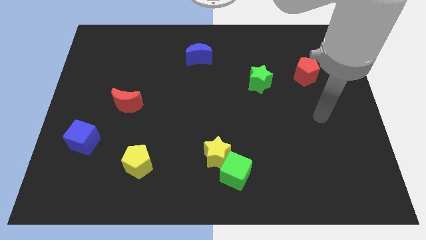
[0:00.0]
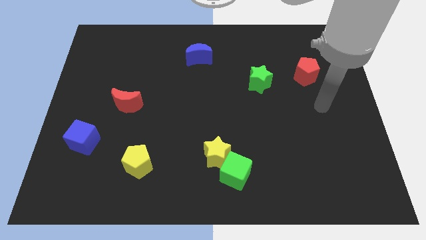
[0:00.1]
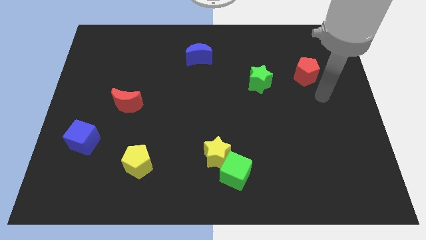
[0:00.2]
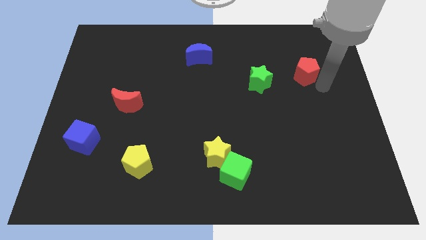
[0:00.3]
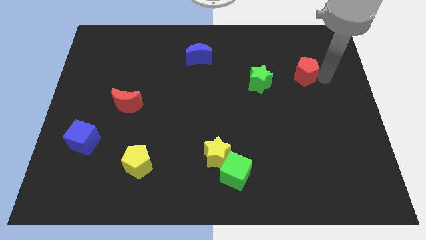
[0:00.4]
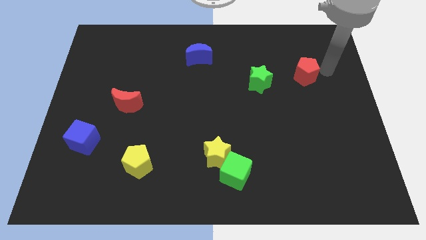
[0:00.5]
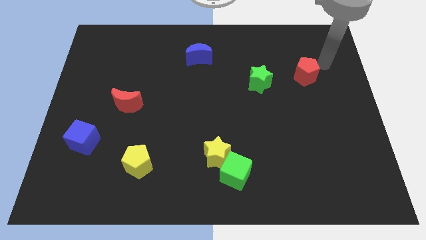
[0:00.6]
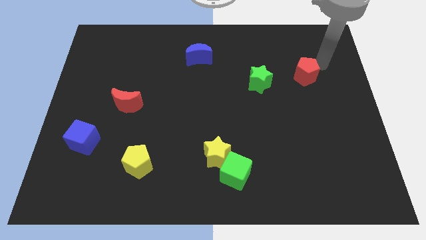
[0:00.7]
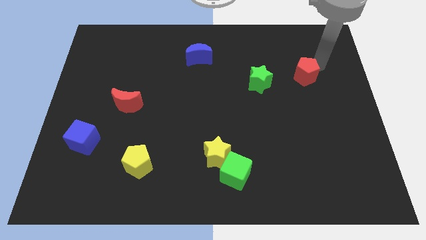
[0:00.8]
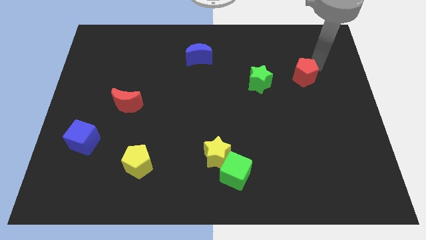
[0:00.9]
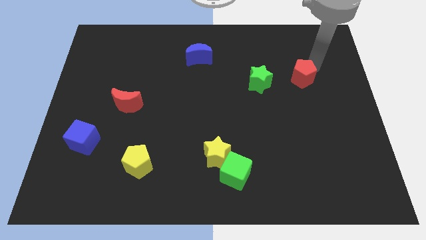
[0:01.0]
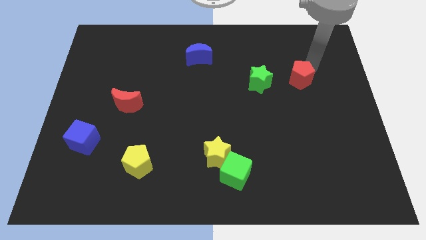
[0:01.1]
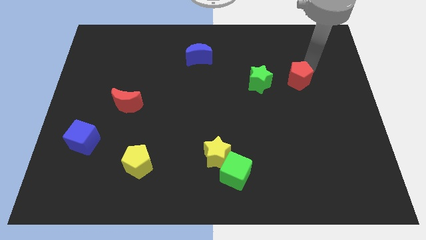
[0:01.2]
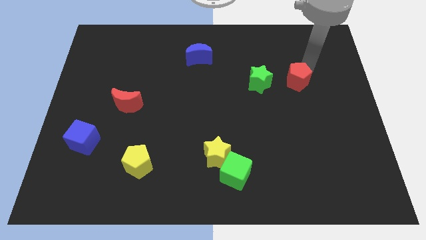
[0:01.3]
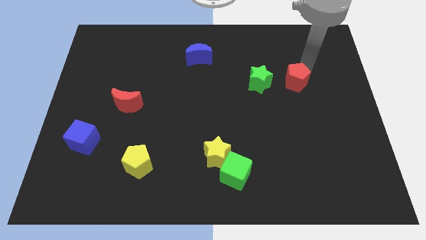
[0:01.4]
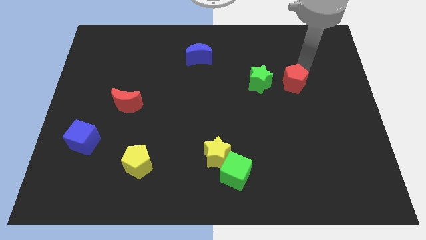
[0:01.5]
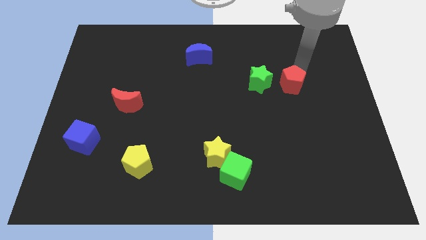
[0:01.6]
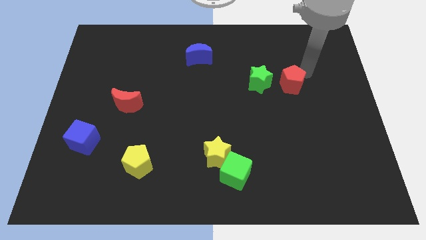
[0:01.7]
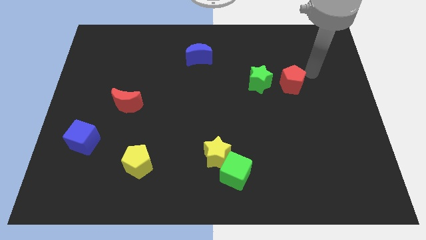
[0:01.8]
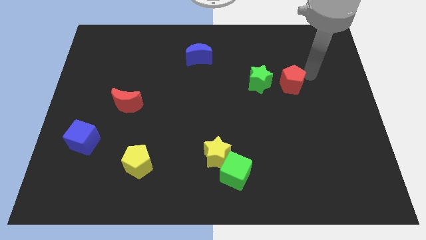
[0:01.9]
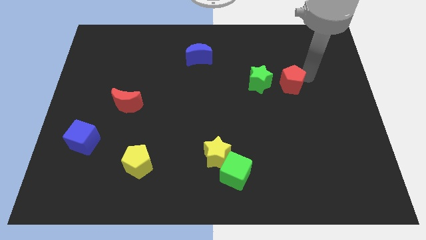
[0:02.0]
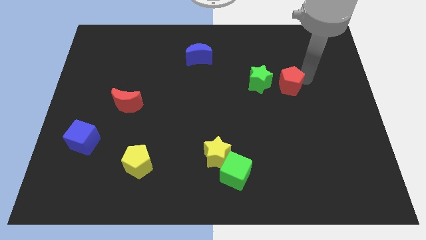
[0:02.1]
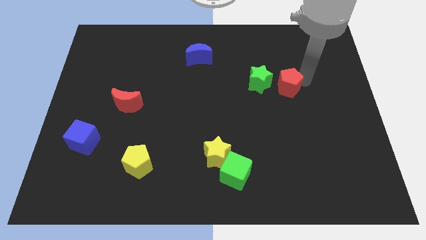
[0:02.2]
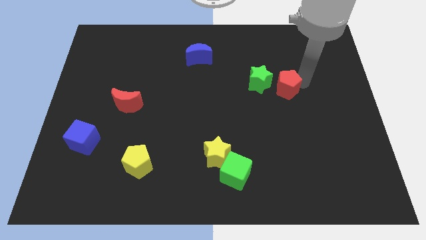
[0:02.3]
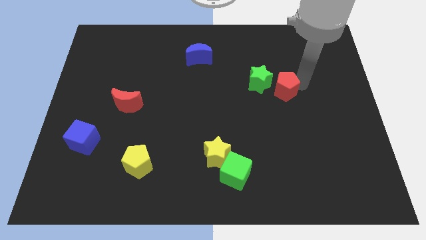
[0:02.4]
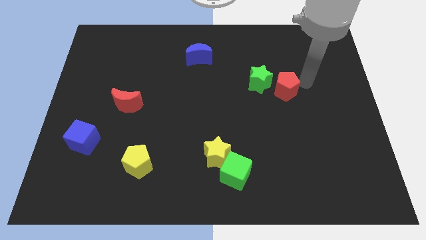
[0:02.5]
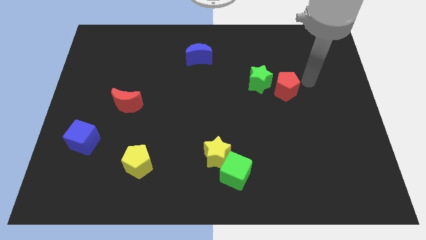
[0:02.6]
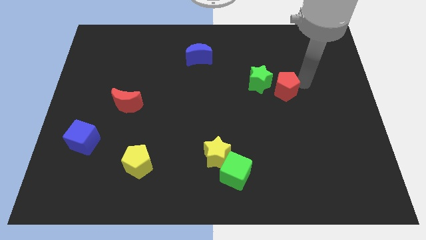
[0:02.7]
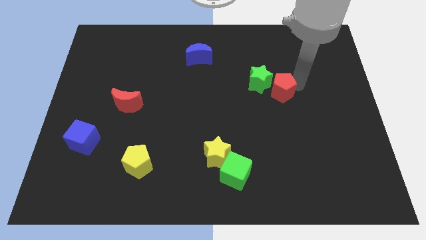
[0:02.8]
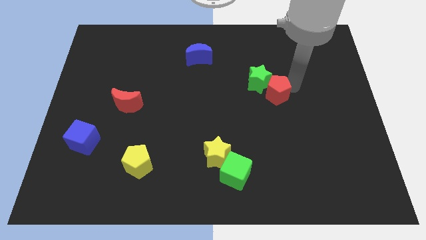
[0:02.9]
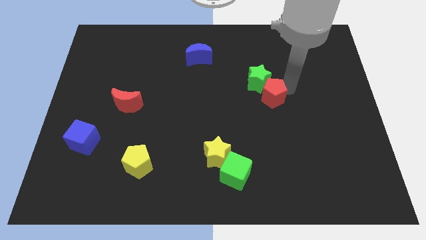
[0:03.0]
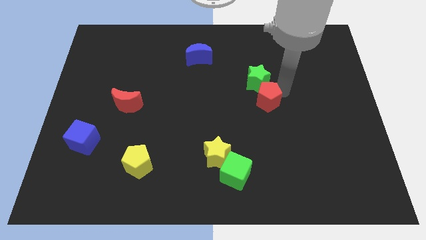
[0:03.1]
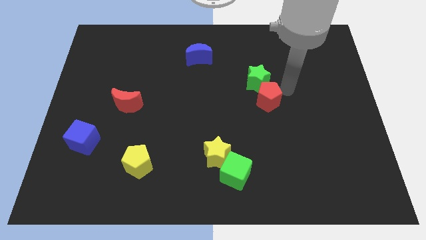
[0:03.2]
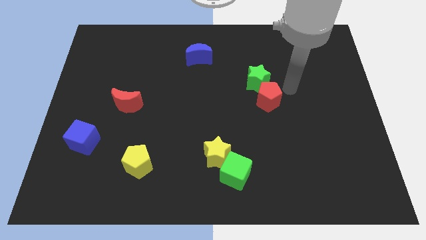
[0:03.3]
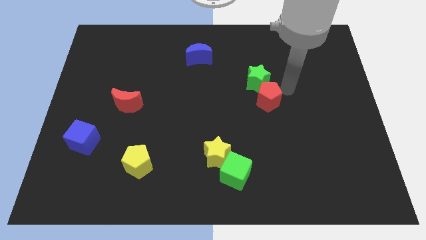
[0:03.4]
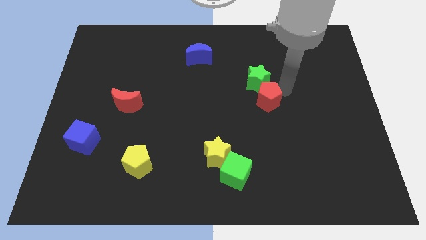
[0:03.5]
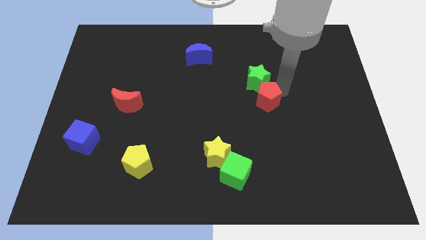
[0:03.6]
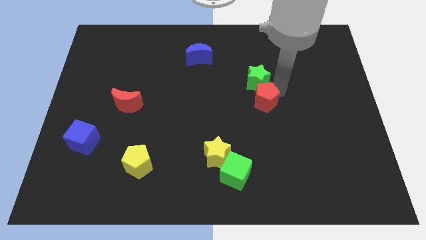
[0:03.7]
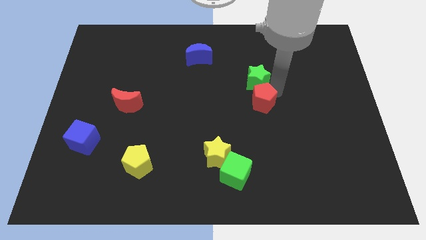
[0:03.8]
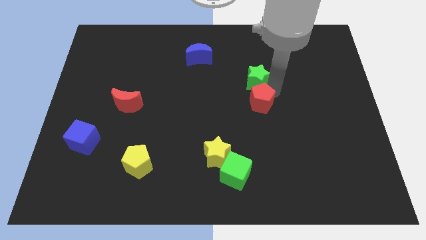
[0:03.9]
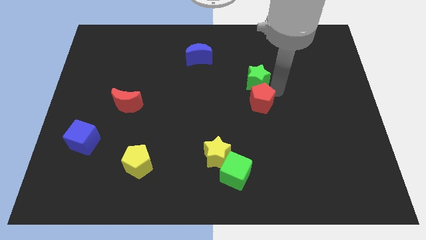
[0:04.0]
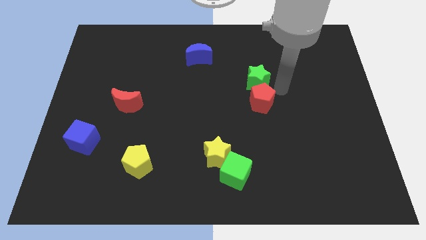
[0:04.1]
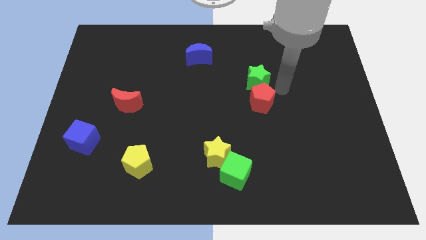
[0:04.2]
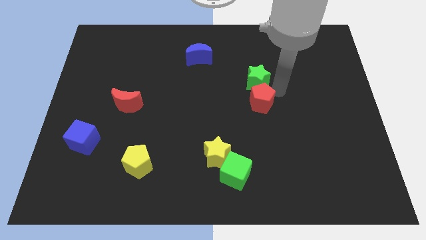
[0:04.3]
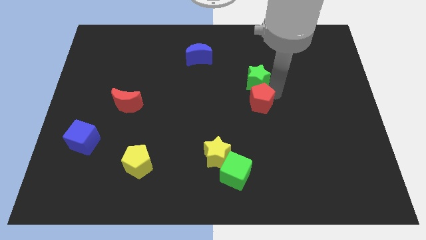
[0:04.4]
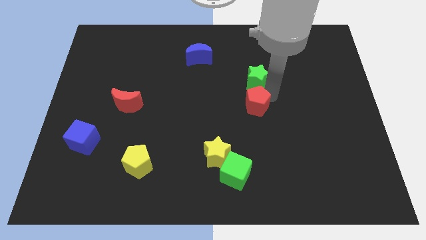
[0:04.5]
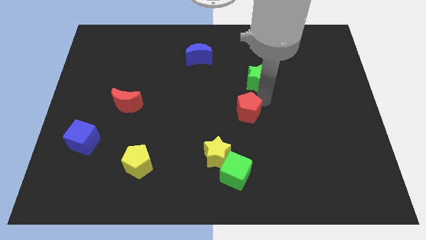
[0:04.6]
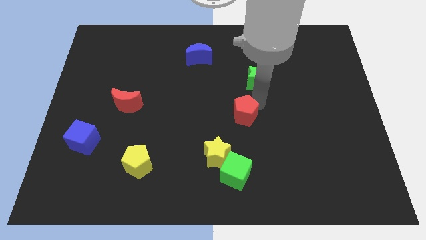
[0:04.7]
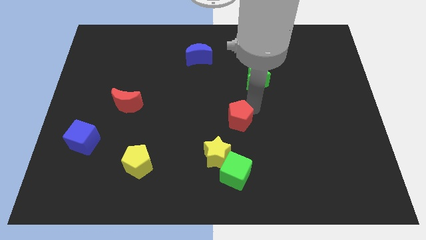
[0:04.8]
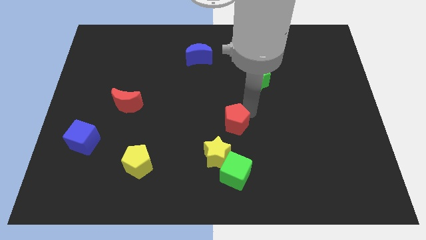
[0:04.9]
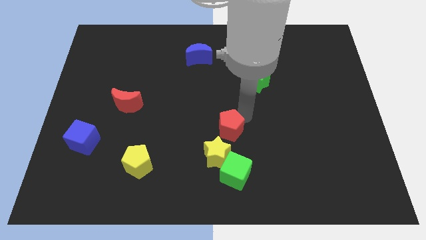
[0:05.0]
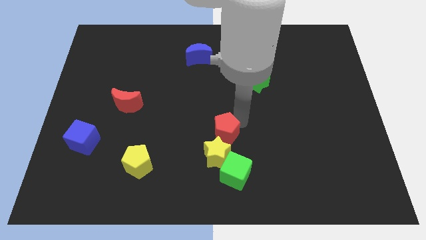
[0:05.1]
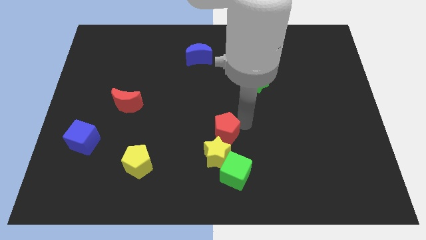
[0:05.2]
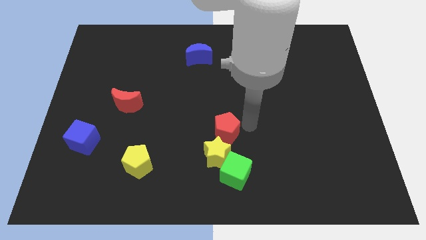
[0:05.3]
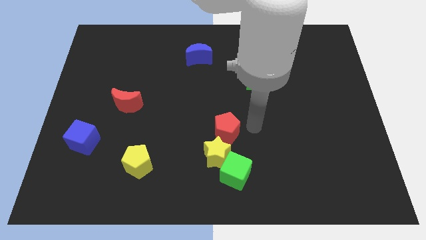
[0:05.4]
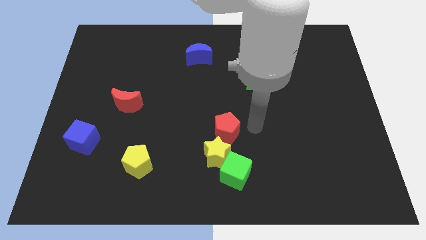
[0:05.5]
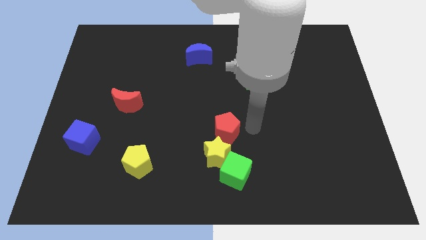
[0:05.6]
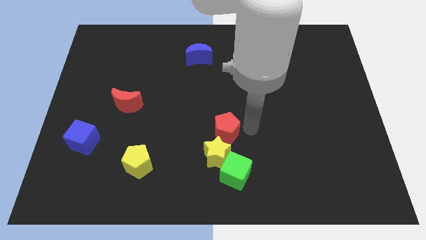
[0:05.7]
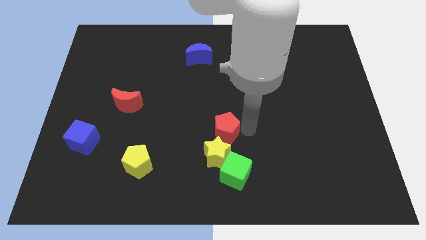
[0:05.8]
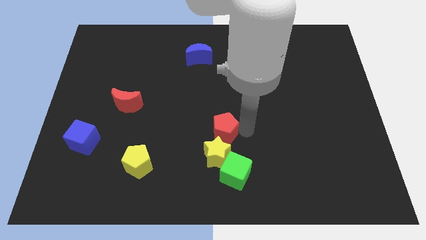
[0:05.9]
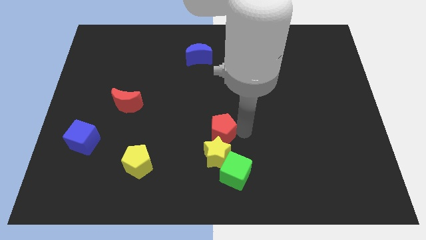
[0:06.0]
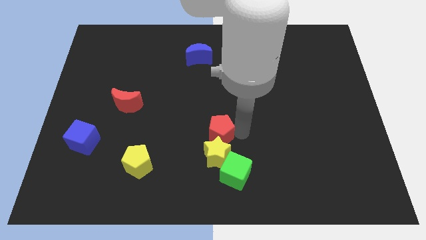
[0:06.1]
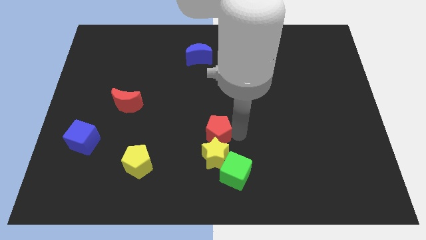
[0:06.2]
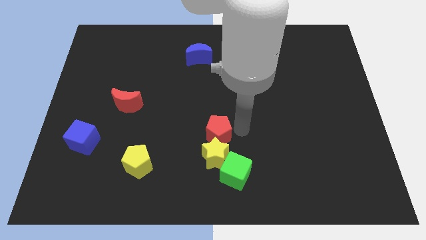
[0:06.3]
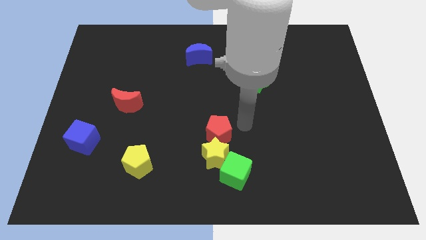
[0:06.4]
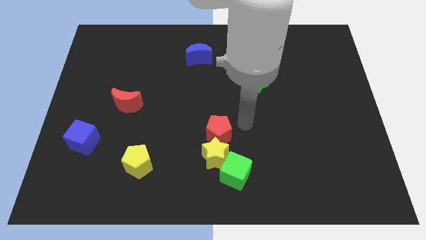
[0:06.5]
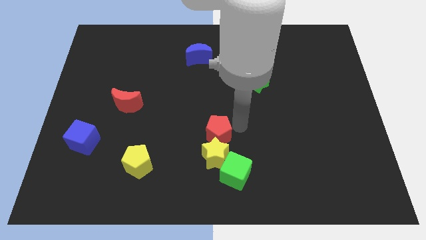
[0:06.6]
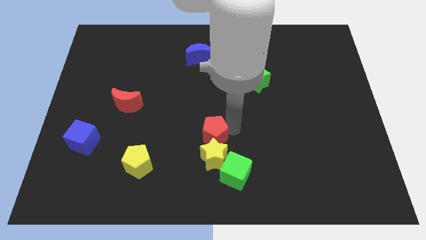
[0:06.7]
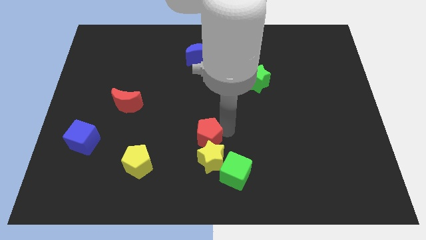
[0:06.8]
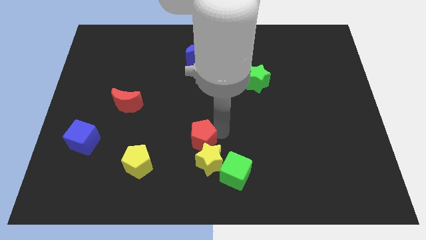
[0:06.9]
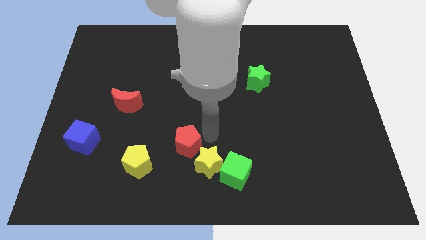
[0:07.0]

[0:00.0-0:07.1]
slide the red pentagon just left of the yellow star
